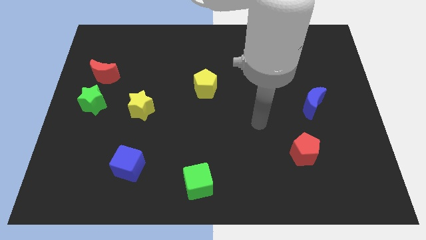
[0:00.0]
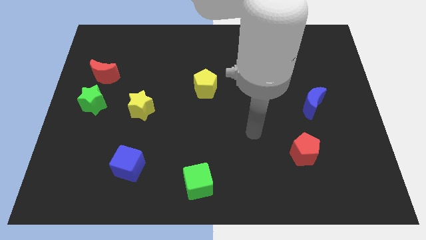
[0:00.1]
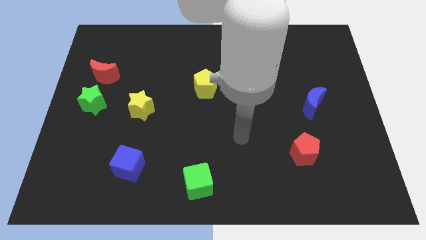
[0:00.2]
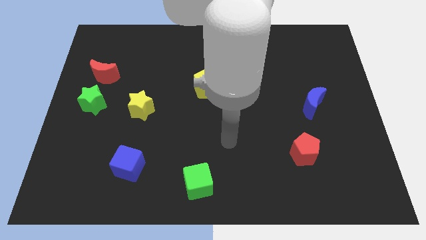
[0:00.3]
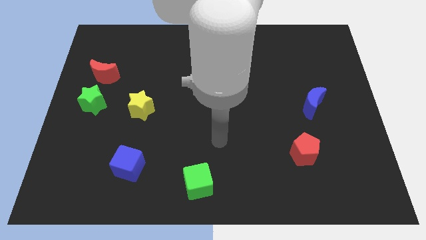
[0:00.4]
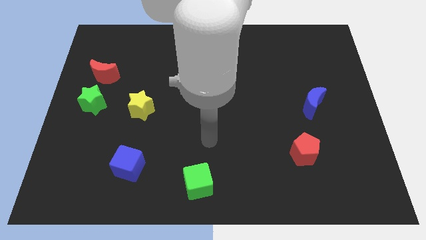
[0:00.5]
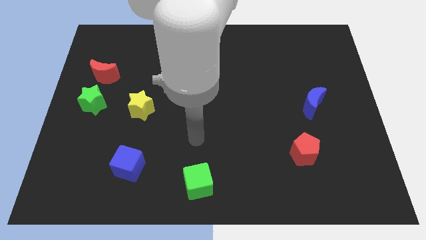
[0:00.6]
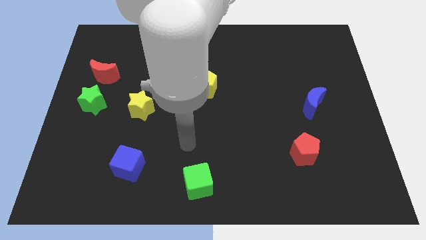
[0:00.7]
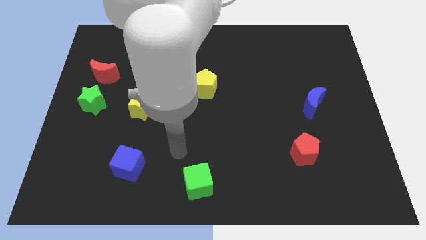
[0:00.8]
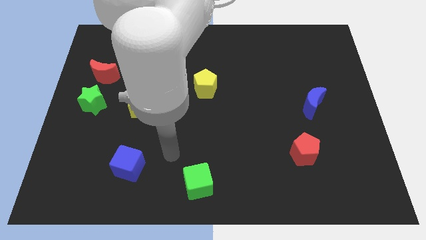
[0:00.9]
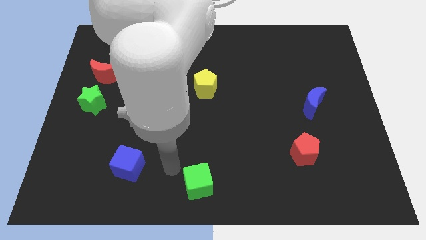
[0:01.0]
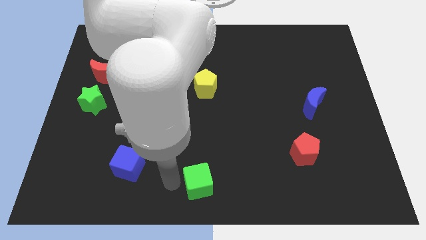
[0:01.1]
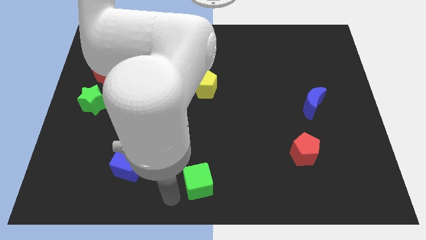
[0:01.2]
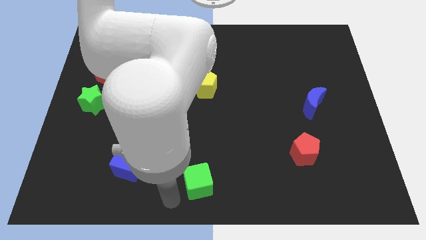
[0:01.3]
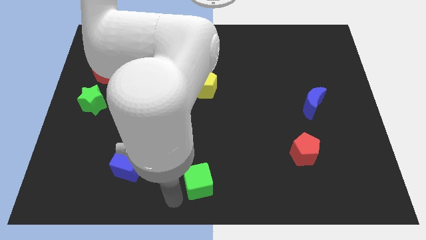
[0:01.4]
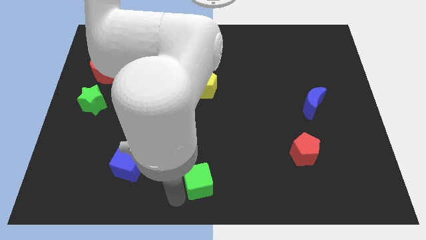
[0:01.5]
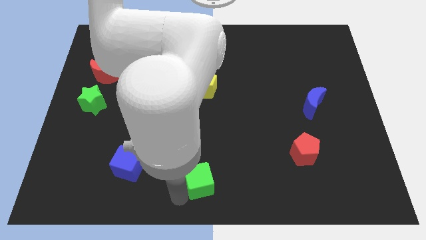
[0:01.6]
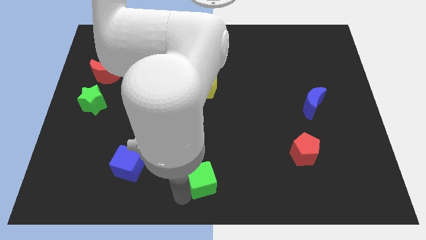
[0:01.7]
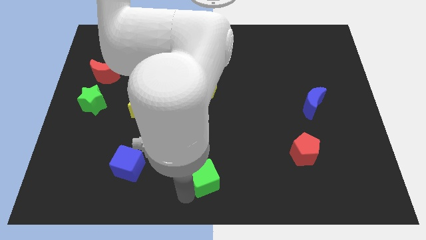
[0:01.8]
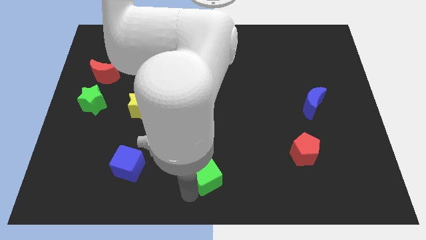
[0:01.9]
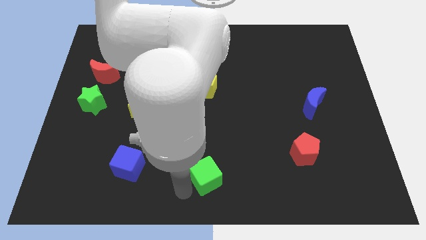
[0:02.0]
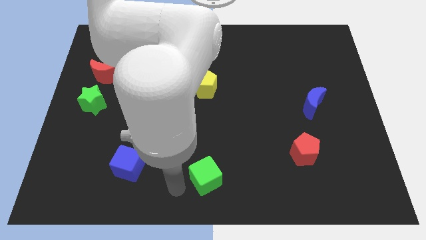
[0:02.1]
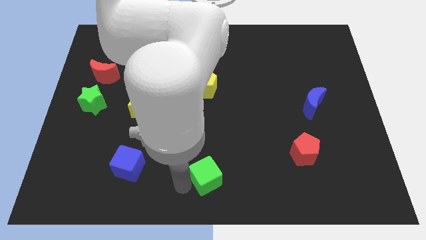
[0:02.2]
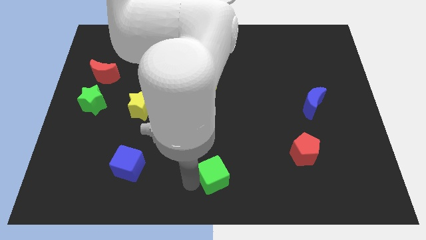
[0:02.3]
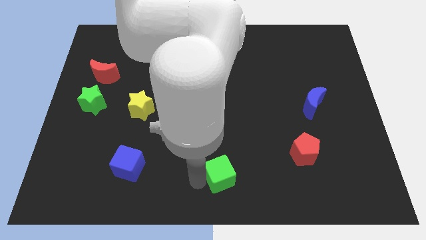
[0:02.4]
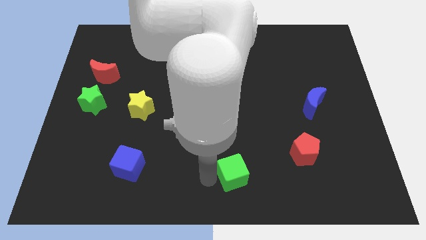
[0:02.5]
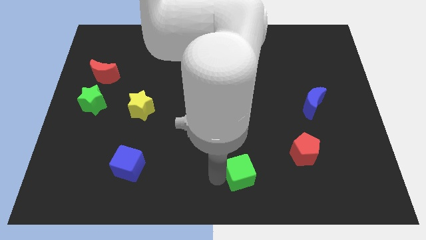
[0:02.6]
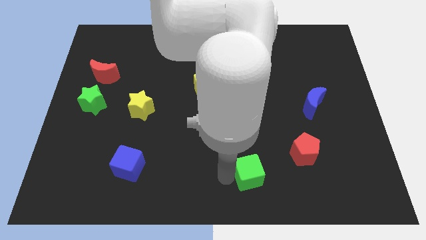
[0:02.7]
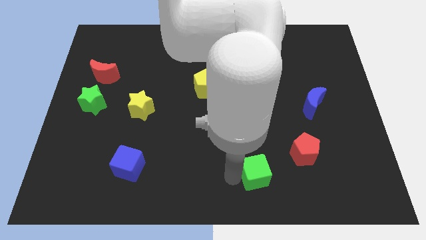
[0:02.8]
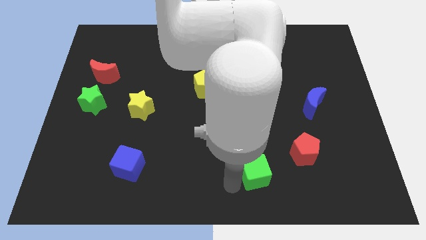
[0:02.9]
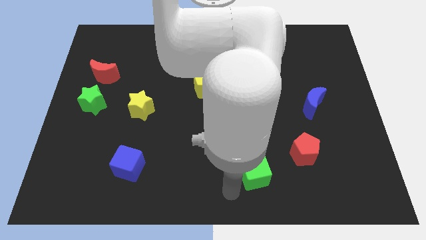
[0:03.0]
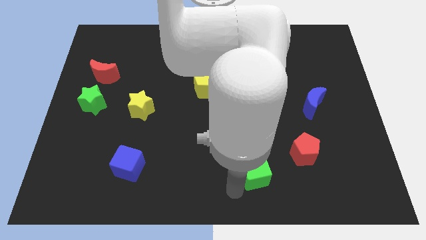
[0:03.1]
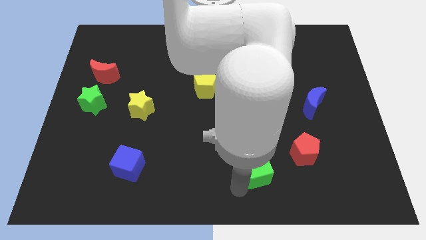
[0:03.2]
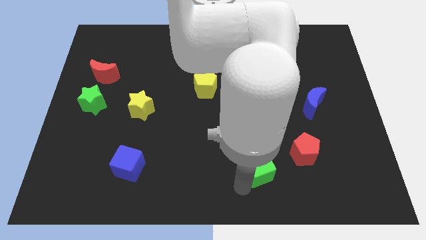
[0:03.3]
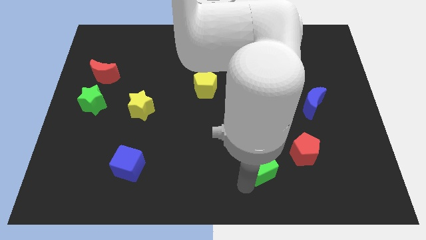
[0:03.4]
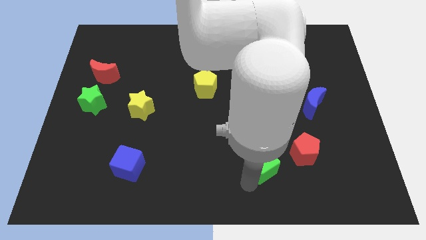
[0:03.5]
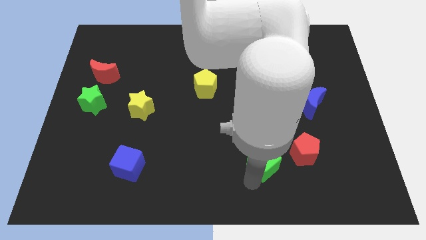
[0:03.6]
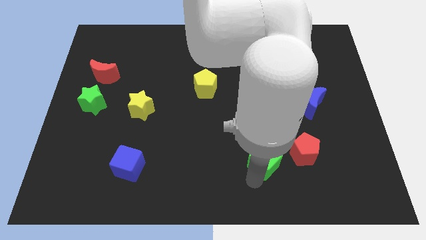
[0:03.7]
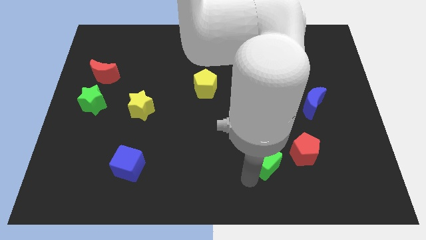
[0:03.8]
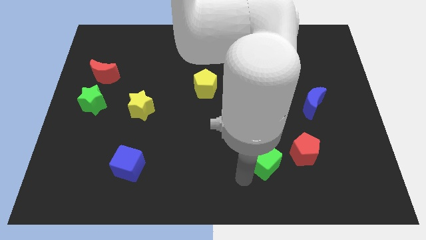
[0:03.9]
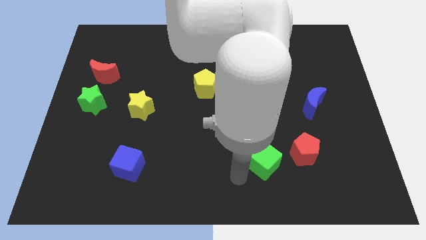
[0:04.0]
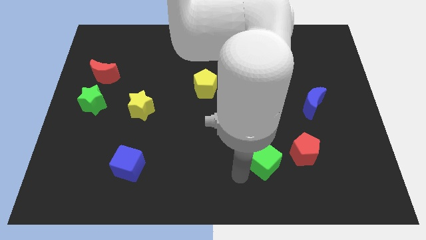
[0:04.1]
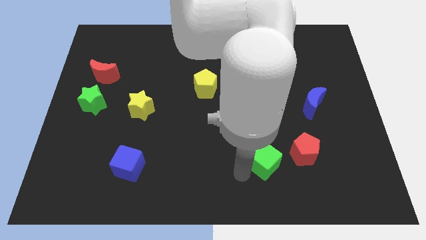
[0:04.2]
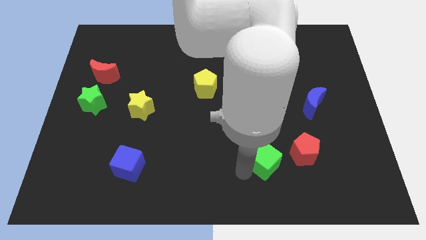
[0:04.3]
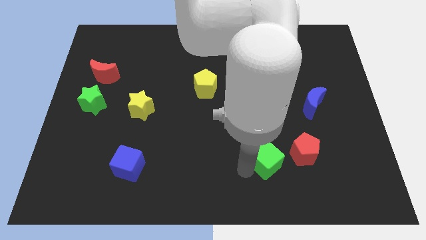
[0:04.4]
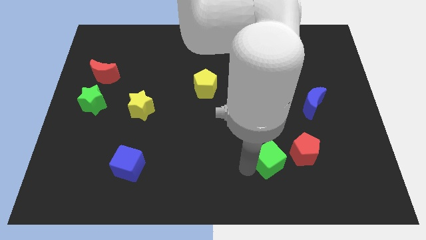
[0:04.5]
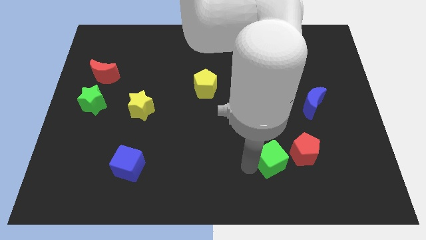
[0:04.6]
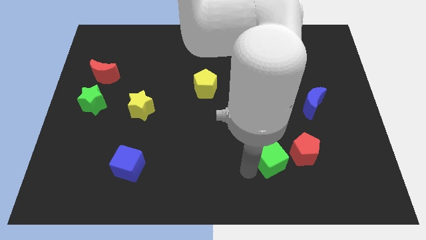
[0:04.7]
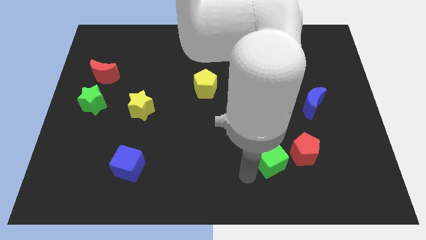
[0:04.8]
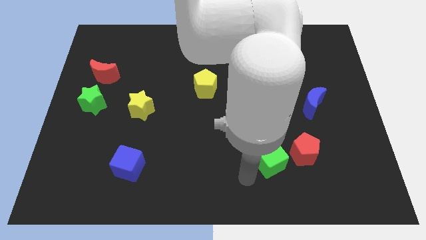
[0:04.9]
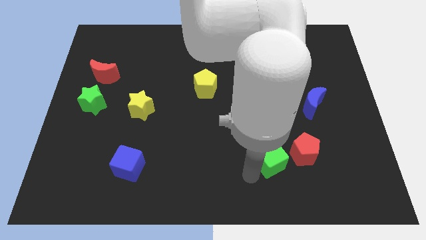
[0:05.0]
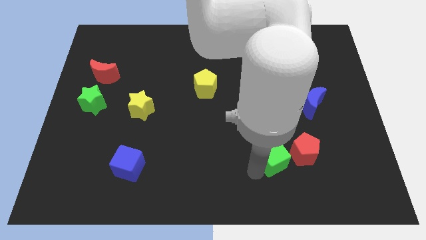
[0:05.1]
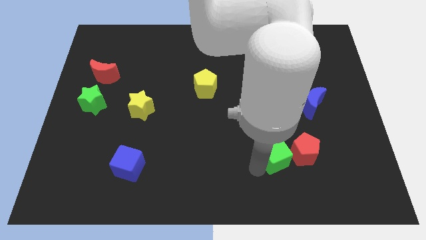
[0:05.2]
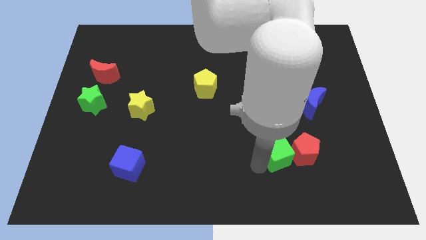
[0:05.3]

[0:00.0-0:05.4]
push the green cube close to the red pentagon

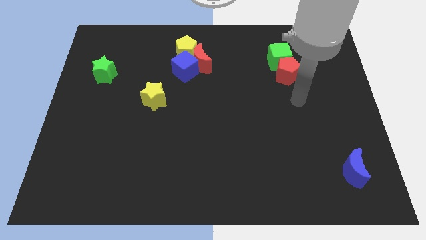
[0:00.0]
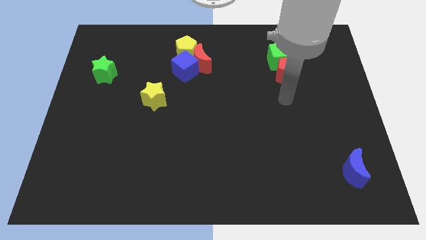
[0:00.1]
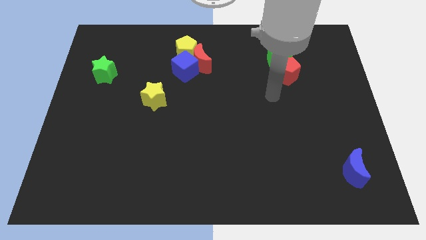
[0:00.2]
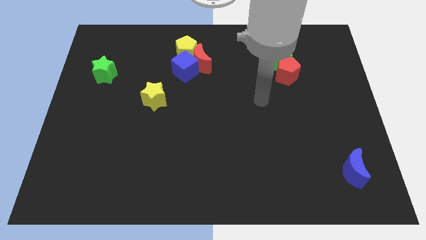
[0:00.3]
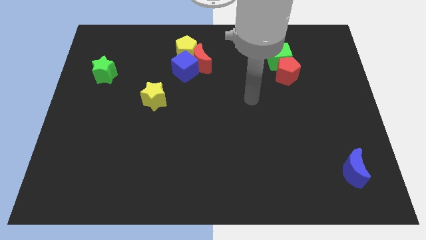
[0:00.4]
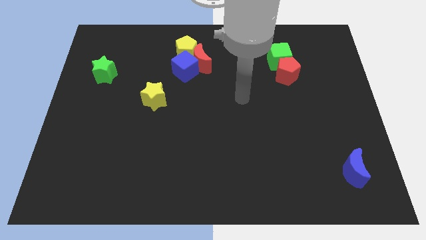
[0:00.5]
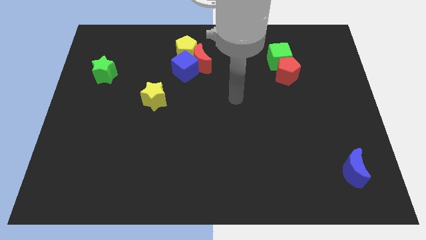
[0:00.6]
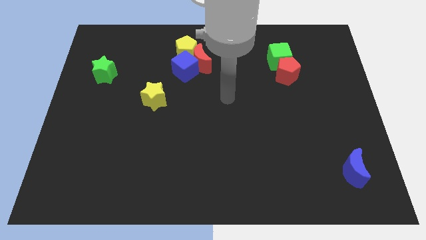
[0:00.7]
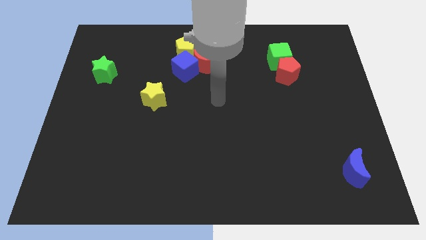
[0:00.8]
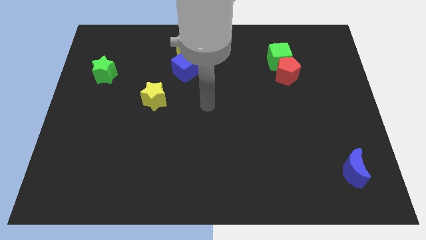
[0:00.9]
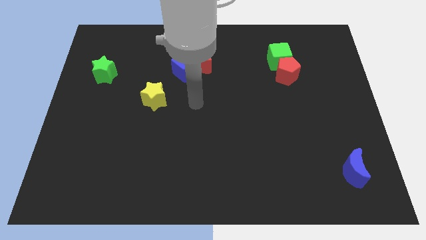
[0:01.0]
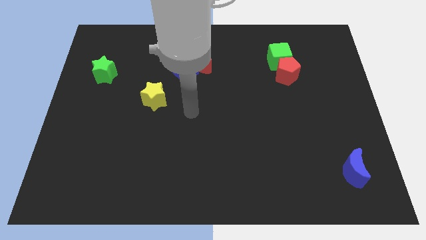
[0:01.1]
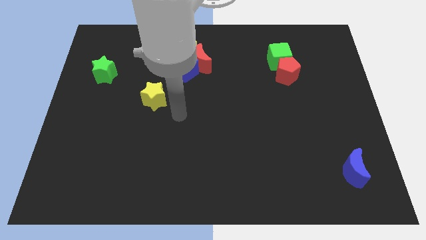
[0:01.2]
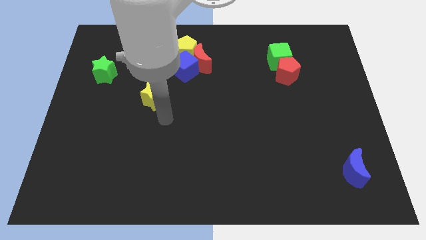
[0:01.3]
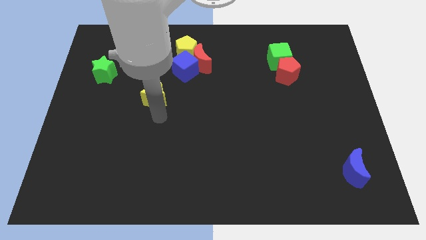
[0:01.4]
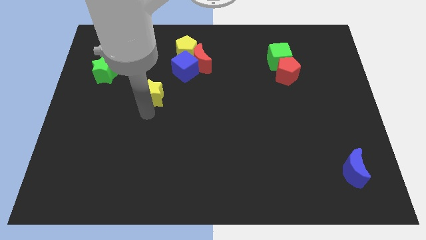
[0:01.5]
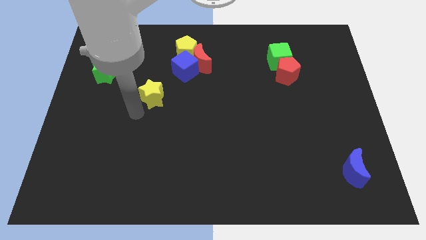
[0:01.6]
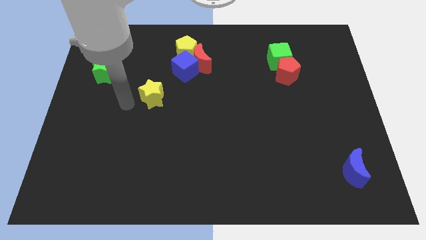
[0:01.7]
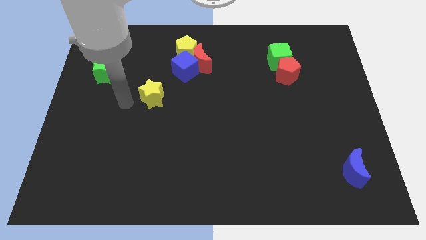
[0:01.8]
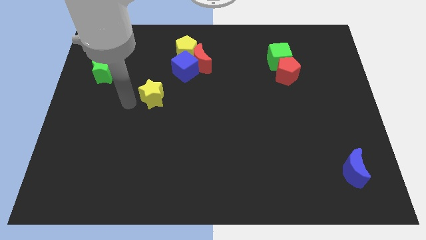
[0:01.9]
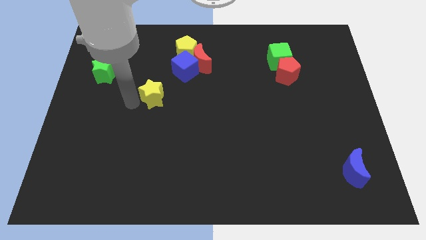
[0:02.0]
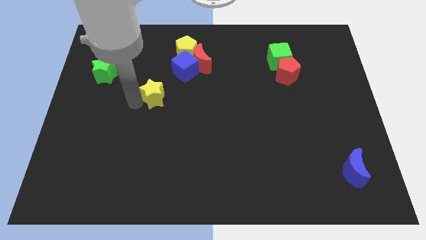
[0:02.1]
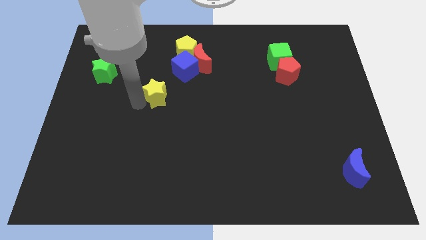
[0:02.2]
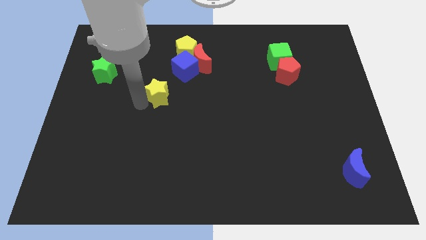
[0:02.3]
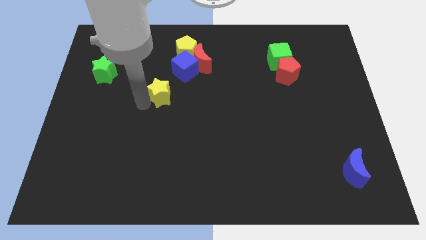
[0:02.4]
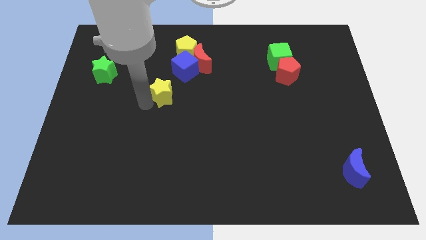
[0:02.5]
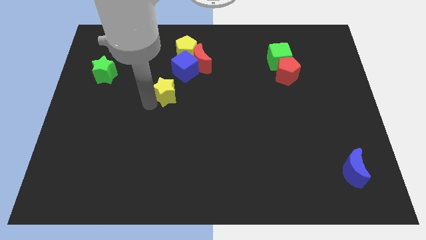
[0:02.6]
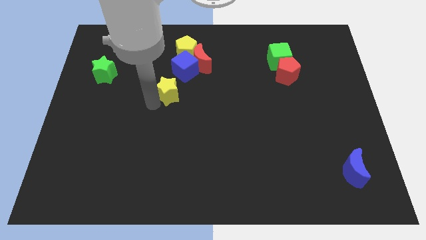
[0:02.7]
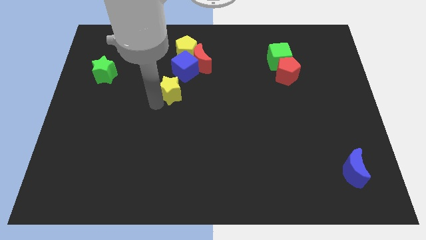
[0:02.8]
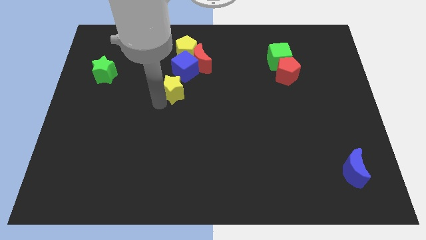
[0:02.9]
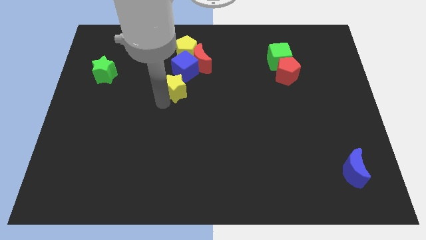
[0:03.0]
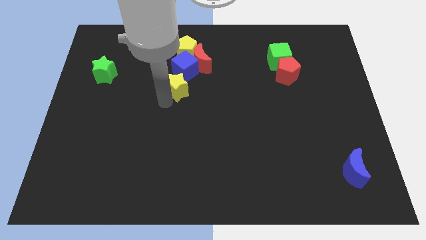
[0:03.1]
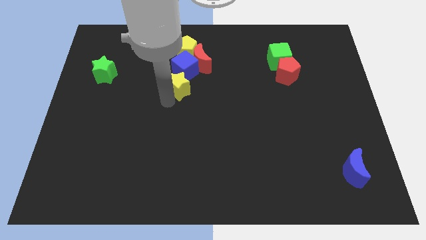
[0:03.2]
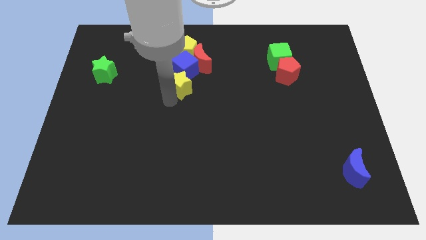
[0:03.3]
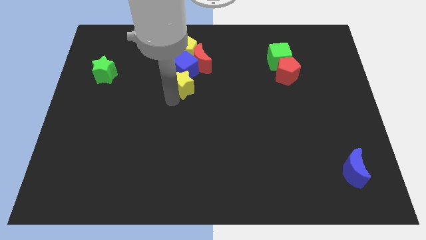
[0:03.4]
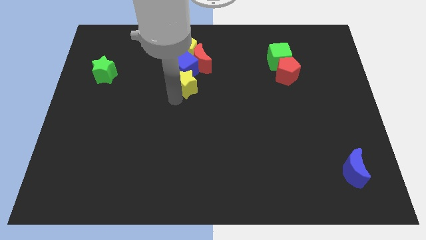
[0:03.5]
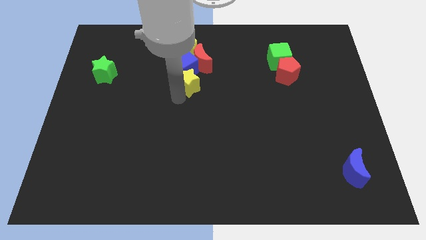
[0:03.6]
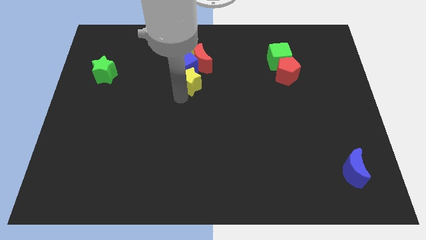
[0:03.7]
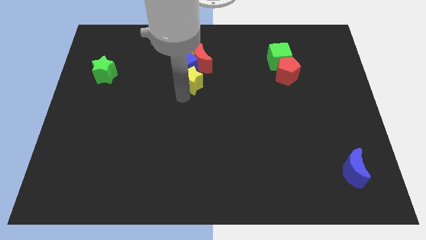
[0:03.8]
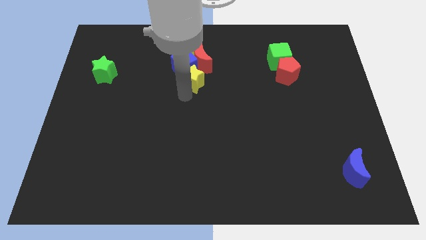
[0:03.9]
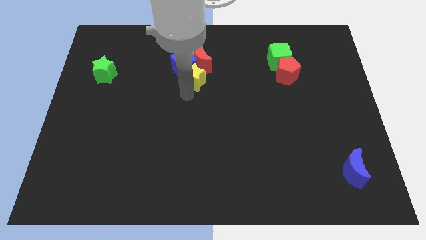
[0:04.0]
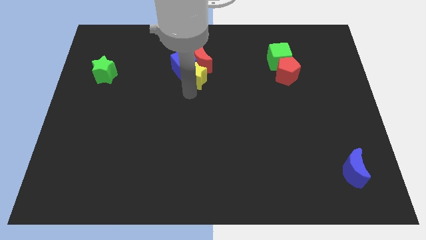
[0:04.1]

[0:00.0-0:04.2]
put the yellow star to the red moon
